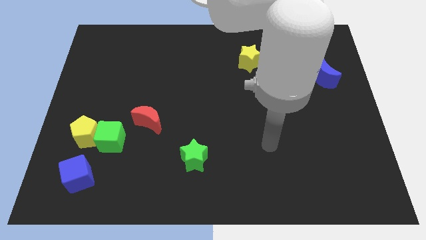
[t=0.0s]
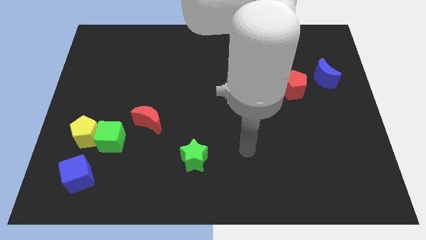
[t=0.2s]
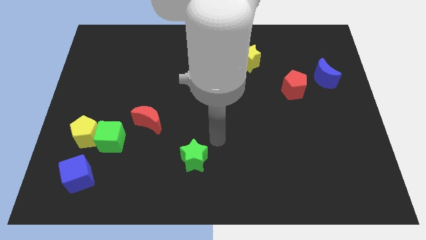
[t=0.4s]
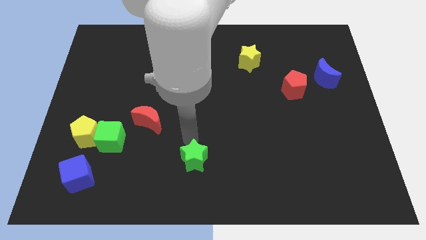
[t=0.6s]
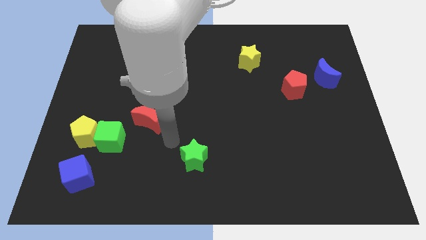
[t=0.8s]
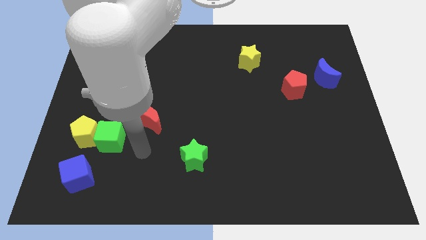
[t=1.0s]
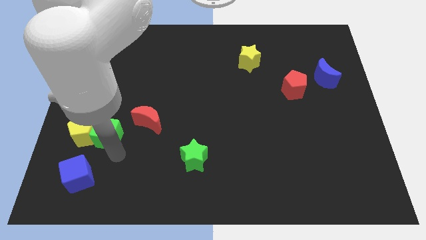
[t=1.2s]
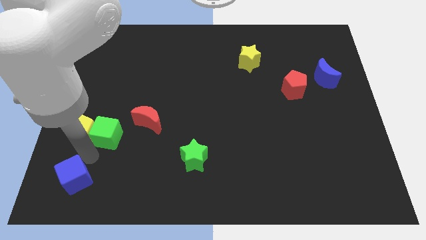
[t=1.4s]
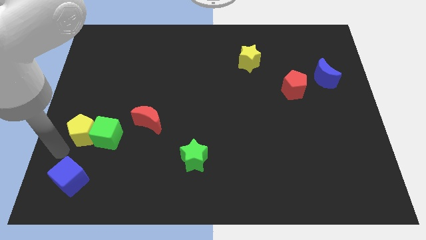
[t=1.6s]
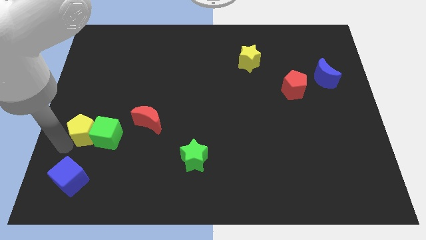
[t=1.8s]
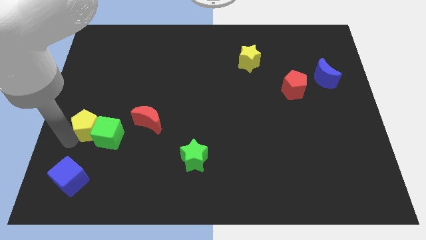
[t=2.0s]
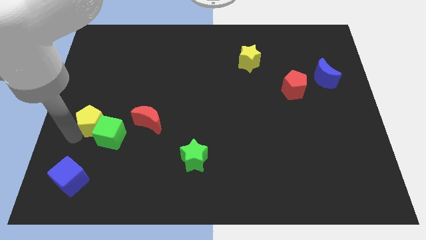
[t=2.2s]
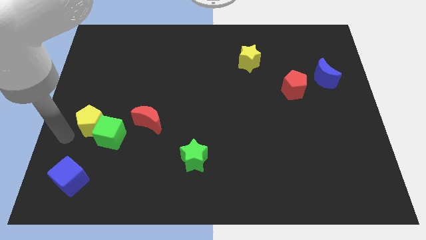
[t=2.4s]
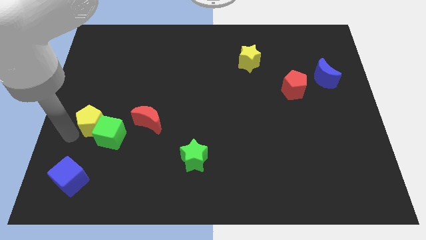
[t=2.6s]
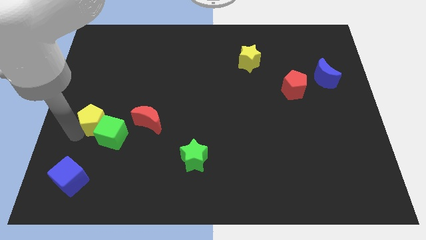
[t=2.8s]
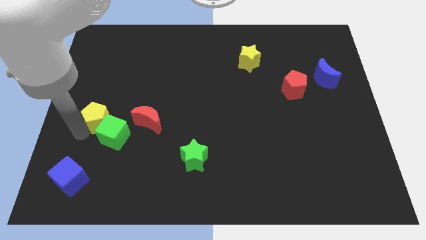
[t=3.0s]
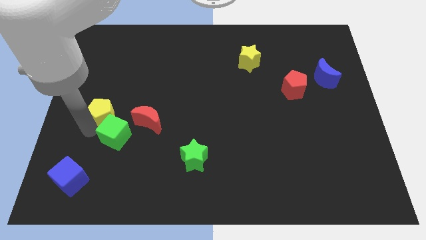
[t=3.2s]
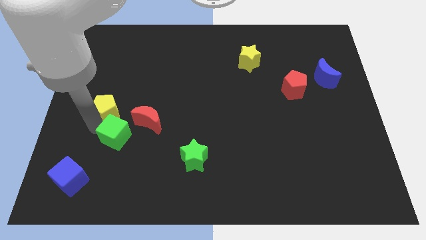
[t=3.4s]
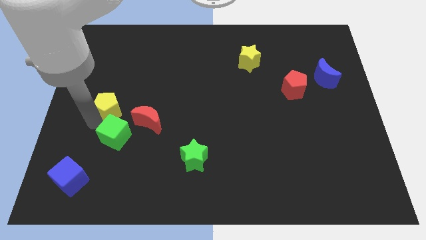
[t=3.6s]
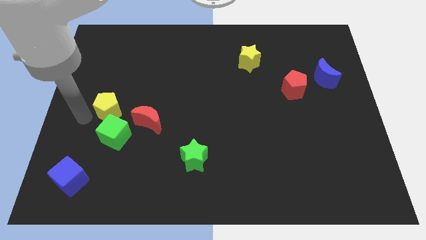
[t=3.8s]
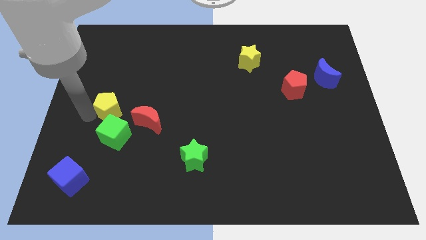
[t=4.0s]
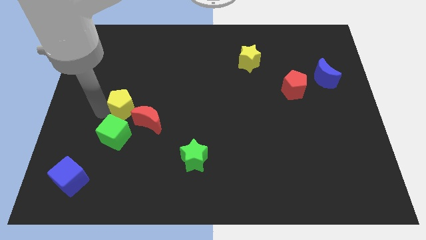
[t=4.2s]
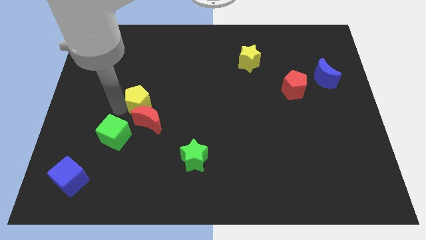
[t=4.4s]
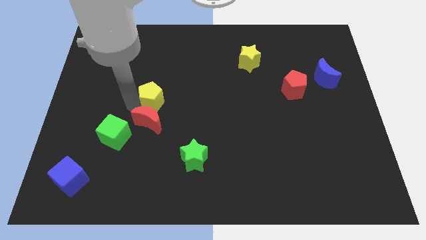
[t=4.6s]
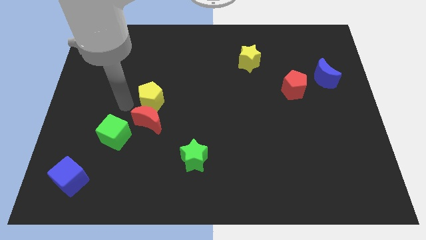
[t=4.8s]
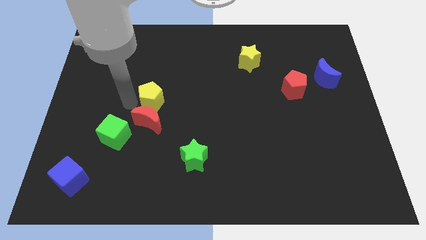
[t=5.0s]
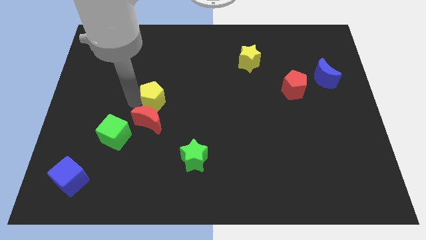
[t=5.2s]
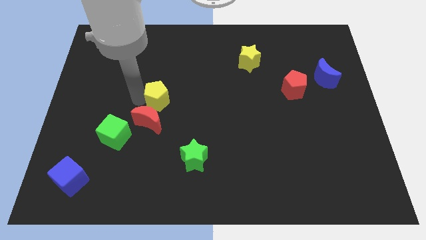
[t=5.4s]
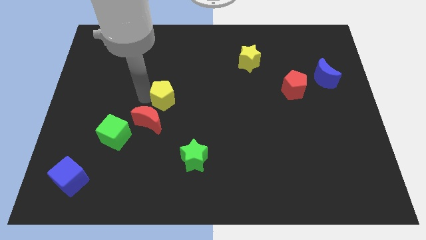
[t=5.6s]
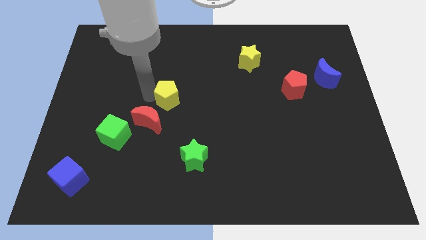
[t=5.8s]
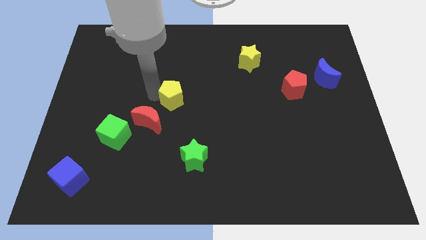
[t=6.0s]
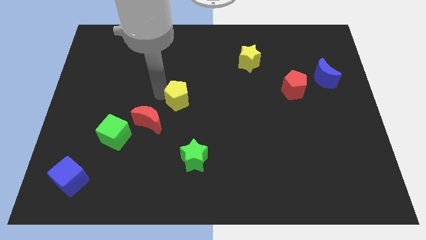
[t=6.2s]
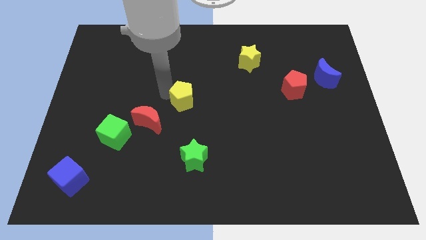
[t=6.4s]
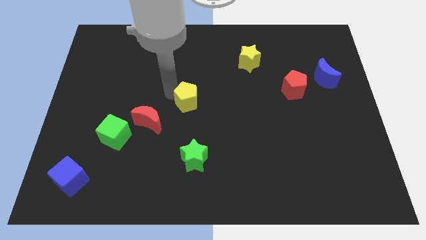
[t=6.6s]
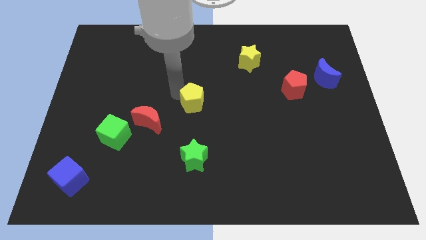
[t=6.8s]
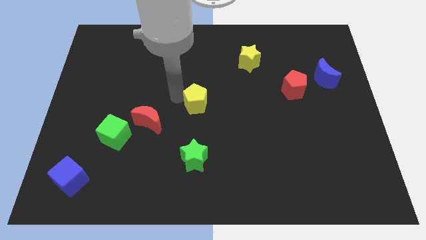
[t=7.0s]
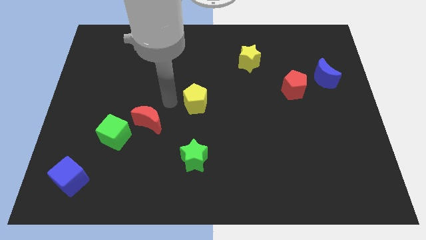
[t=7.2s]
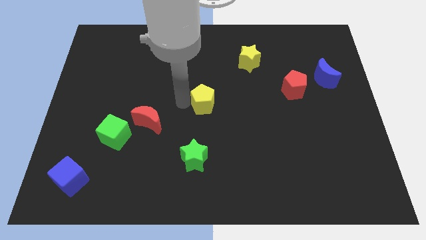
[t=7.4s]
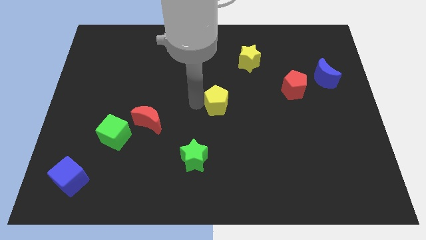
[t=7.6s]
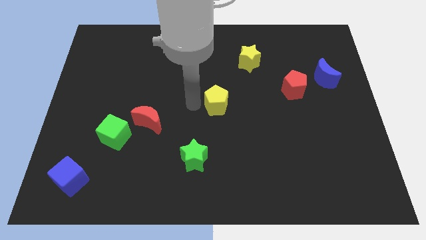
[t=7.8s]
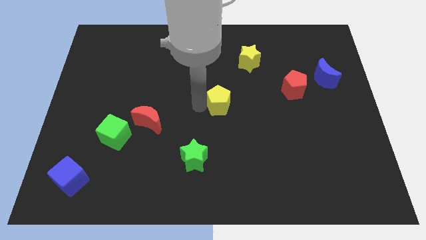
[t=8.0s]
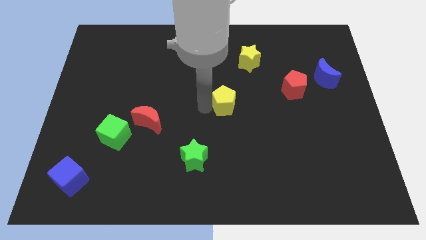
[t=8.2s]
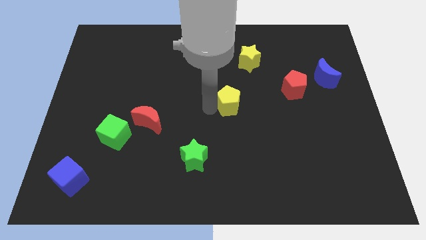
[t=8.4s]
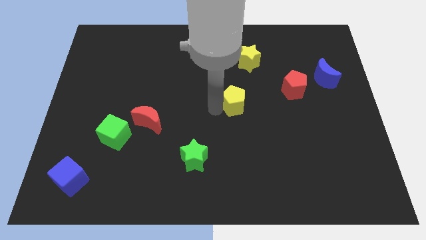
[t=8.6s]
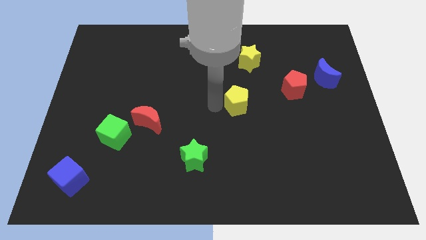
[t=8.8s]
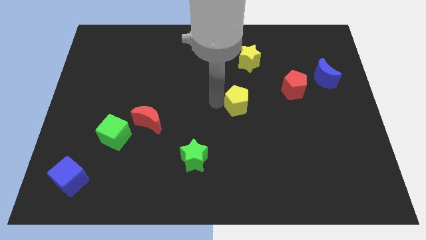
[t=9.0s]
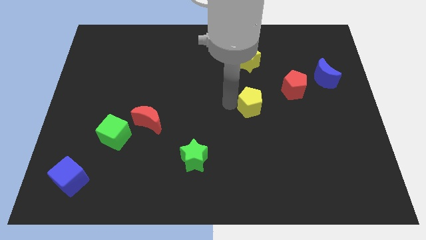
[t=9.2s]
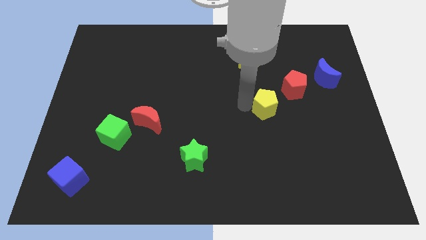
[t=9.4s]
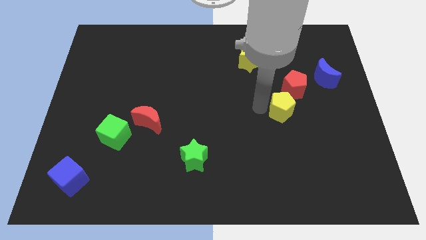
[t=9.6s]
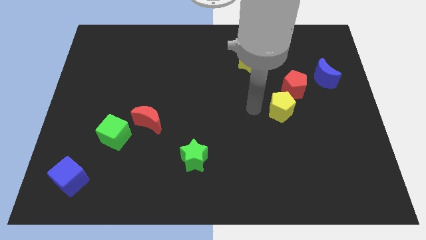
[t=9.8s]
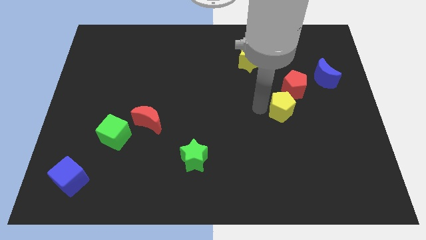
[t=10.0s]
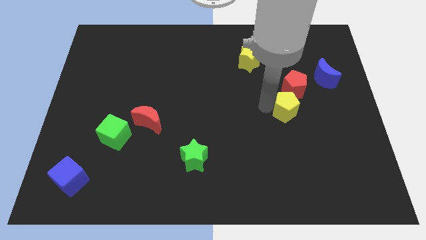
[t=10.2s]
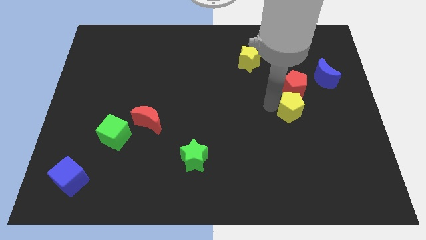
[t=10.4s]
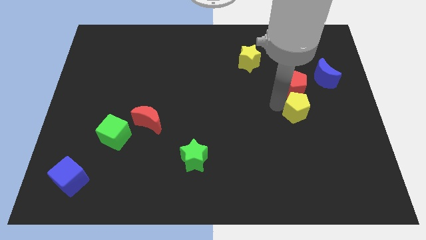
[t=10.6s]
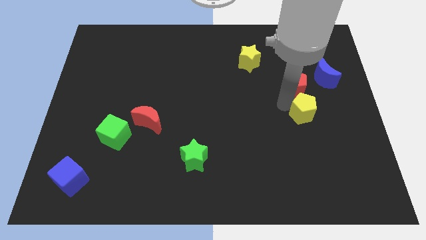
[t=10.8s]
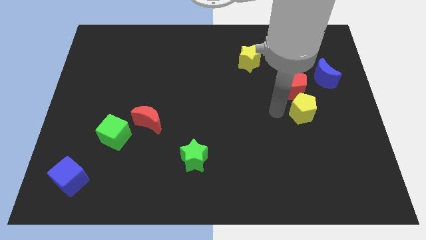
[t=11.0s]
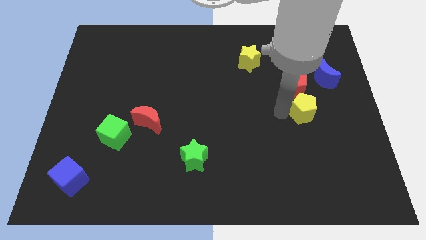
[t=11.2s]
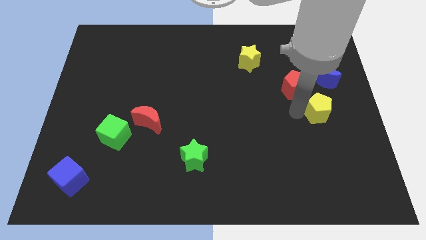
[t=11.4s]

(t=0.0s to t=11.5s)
push the yellow pentagon to the bottom side of the blue moon

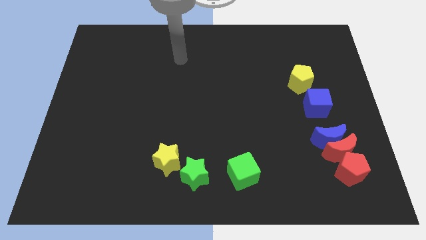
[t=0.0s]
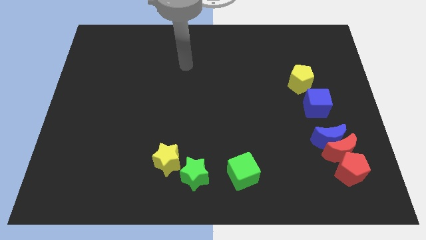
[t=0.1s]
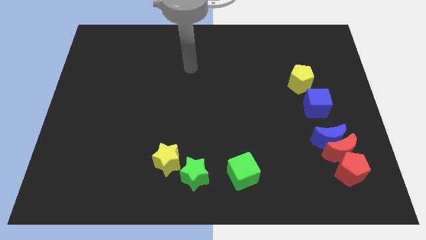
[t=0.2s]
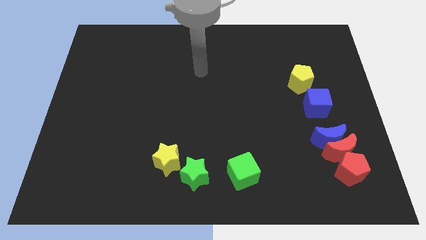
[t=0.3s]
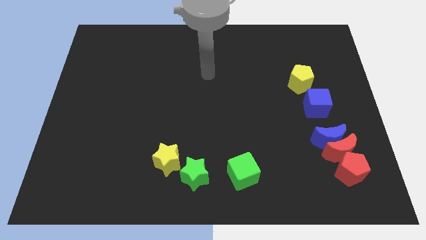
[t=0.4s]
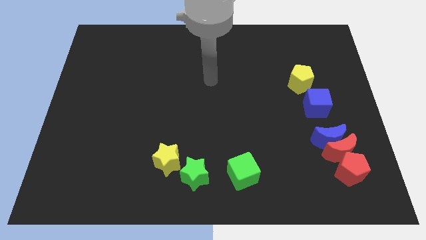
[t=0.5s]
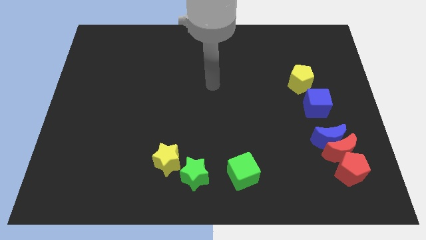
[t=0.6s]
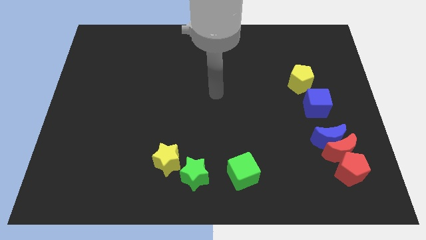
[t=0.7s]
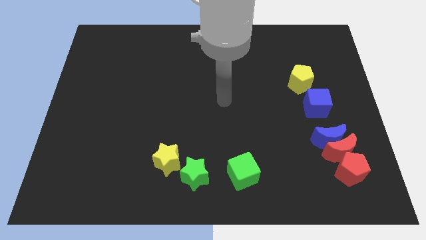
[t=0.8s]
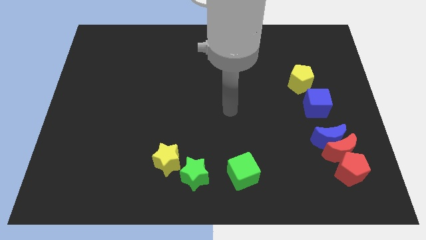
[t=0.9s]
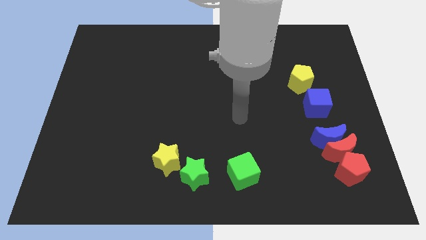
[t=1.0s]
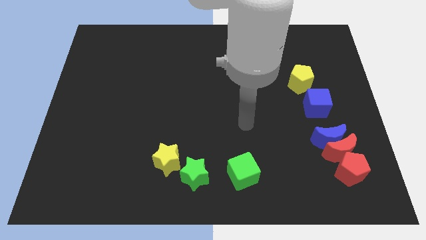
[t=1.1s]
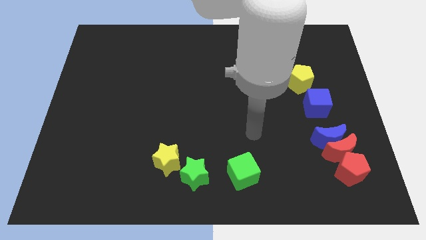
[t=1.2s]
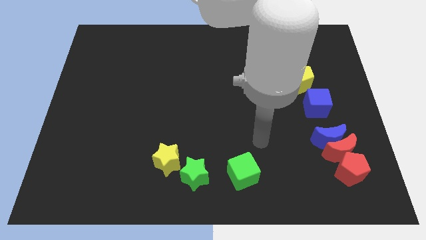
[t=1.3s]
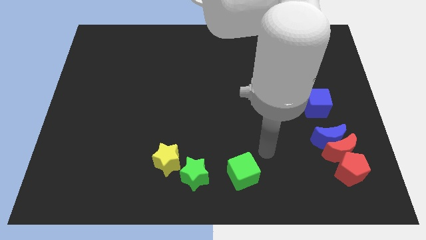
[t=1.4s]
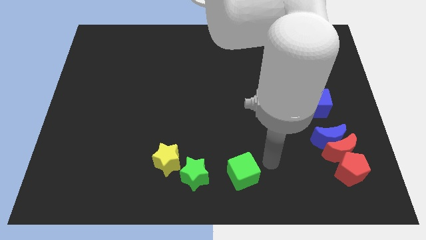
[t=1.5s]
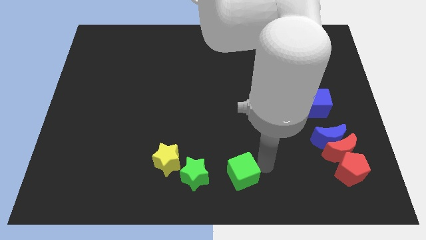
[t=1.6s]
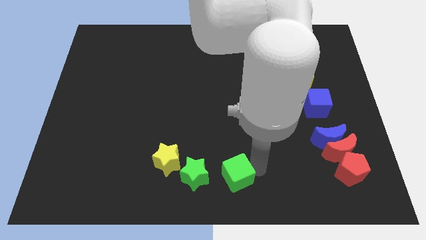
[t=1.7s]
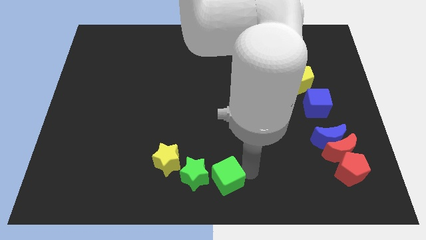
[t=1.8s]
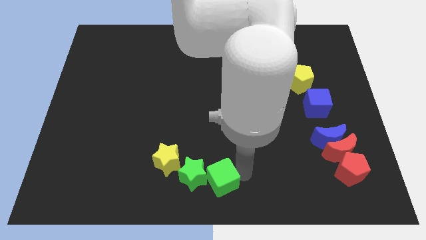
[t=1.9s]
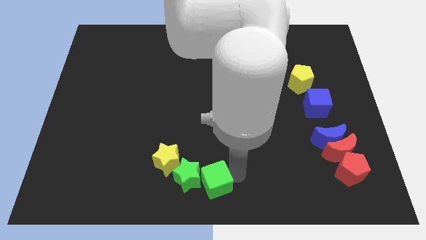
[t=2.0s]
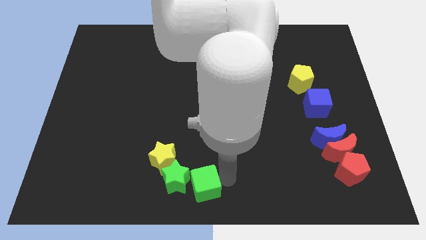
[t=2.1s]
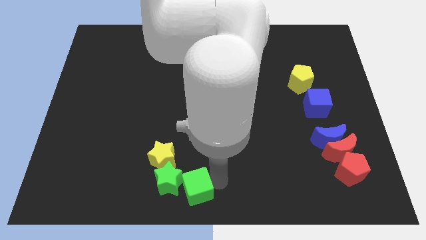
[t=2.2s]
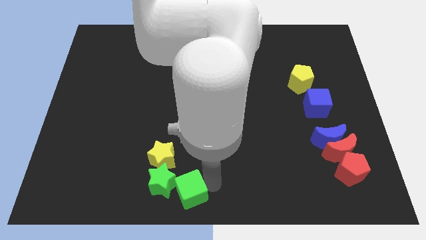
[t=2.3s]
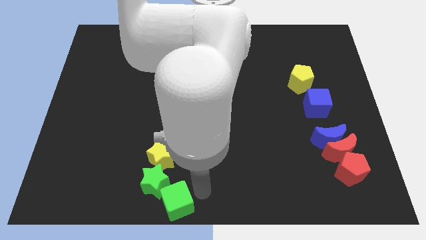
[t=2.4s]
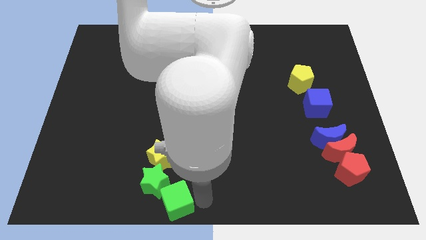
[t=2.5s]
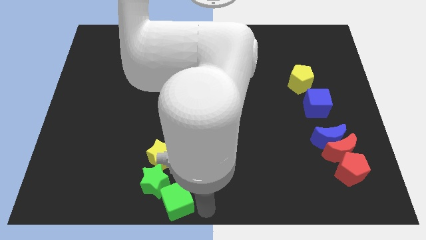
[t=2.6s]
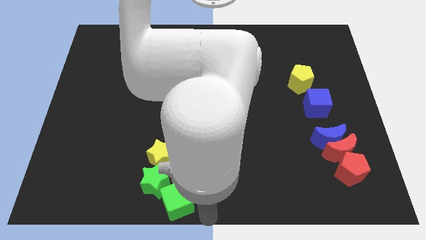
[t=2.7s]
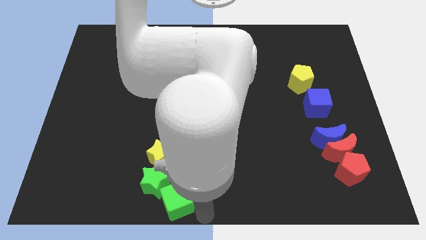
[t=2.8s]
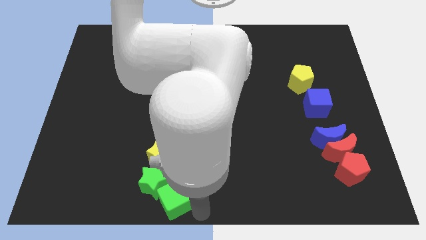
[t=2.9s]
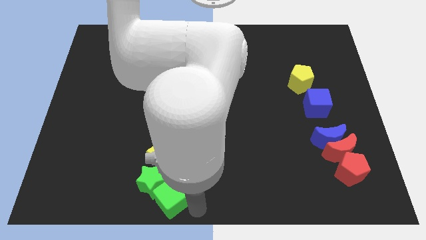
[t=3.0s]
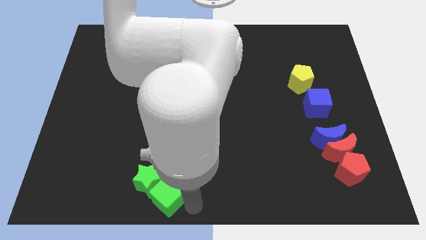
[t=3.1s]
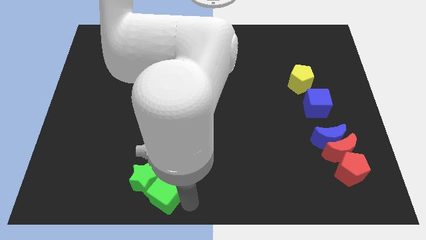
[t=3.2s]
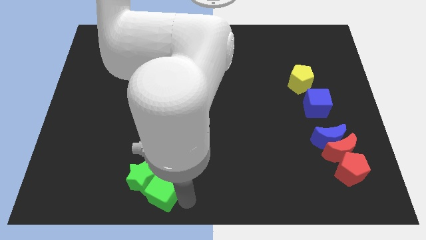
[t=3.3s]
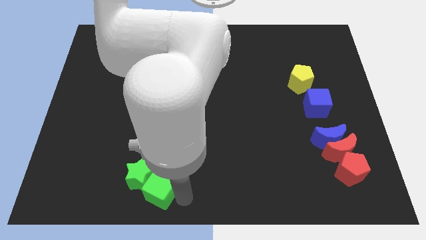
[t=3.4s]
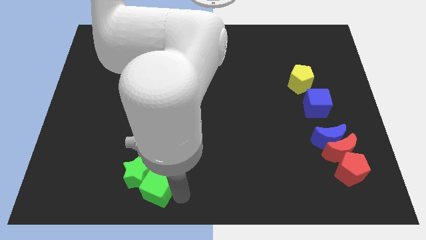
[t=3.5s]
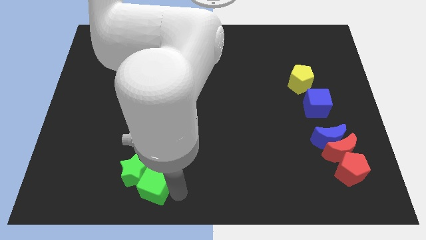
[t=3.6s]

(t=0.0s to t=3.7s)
put the green cube to the bottom left side of the yellow star
